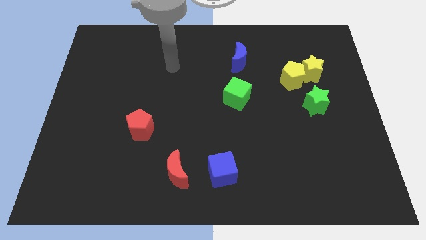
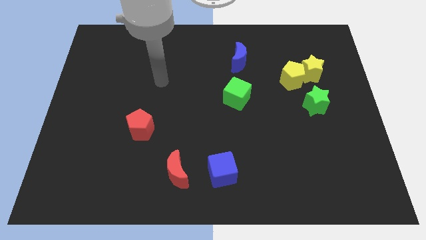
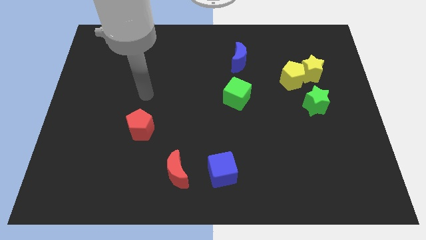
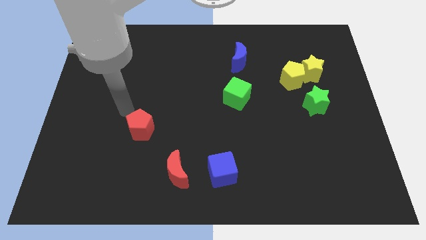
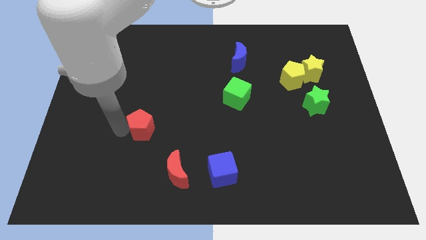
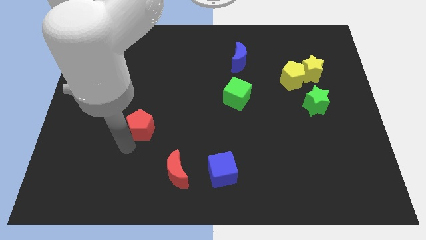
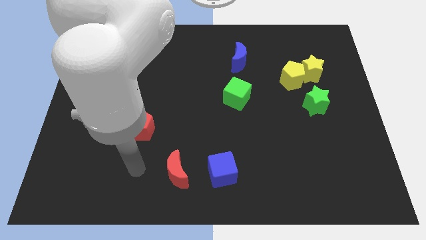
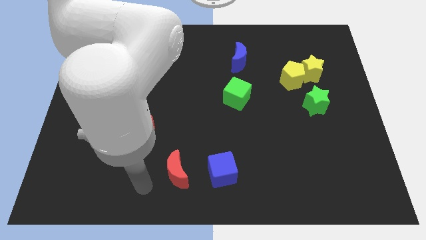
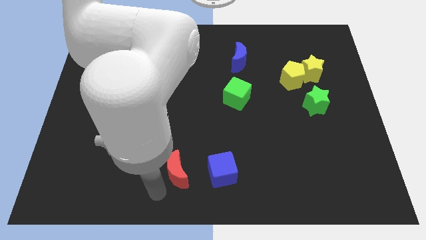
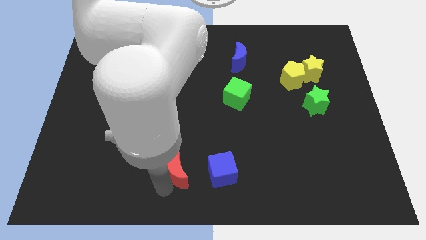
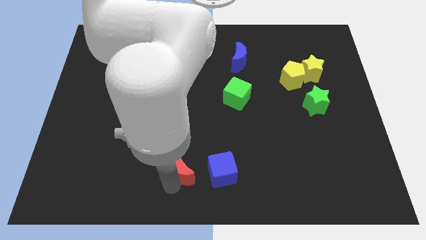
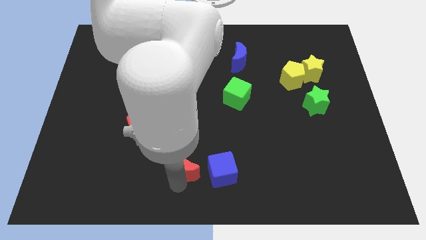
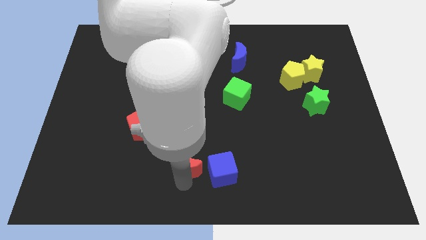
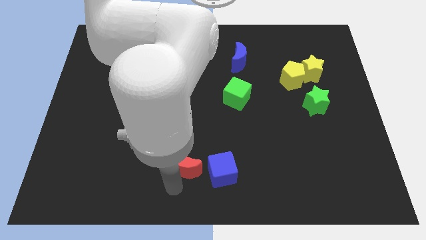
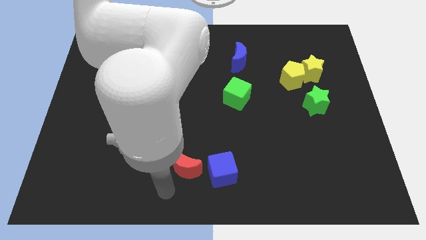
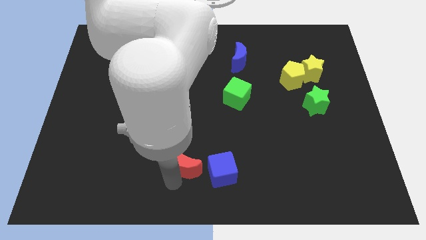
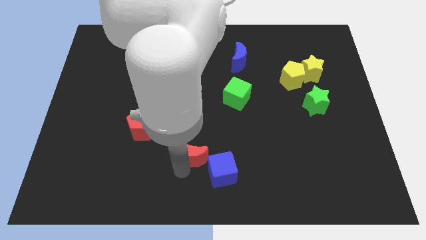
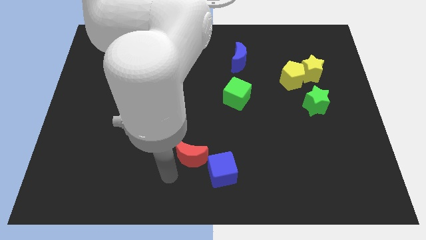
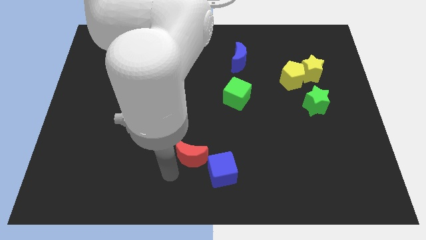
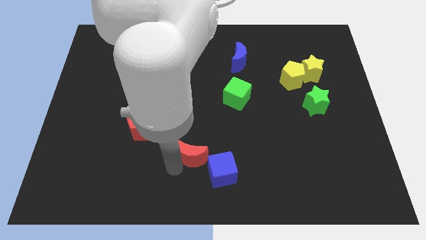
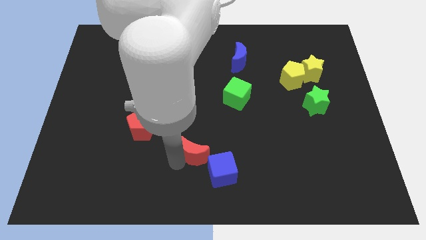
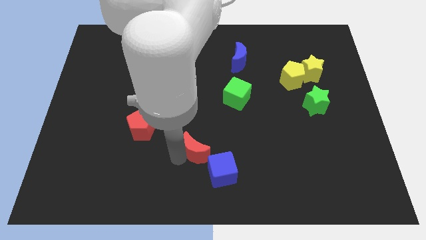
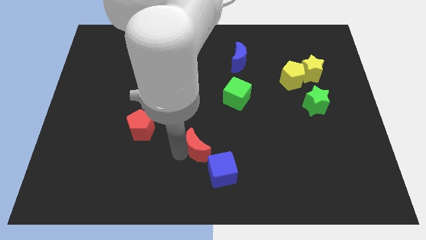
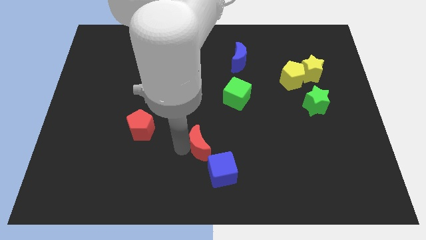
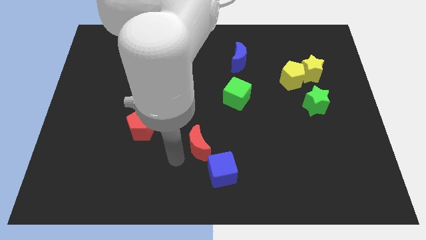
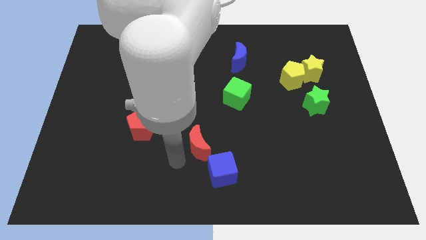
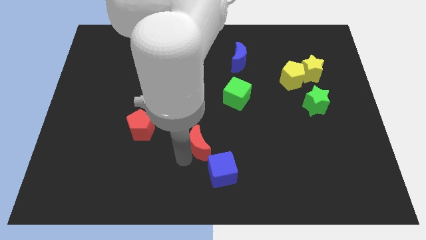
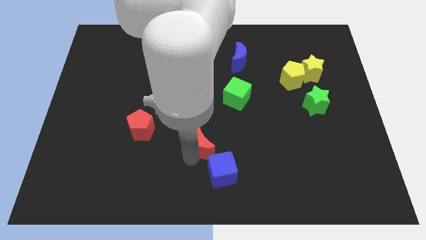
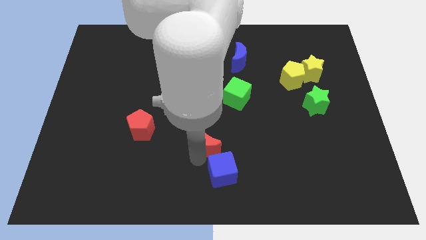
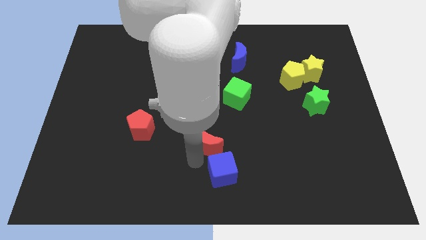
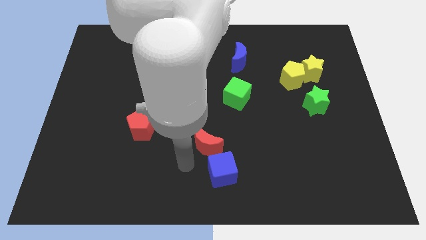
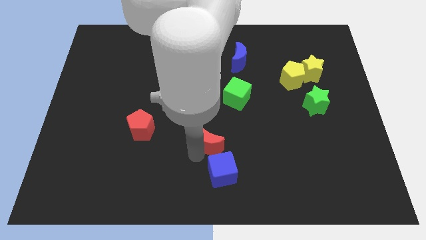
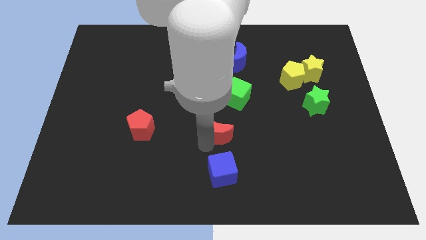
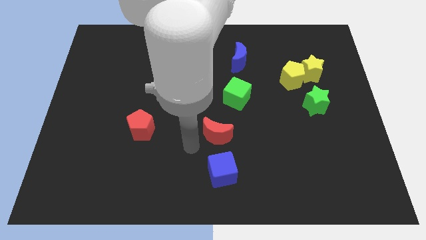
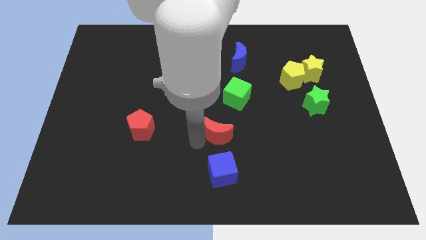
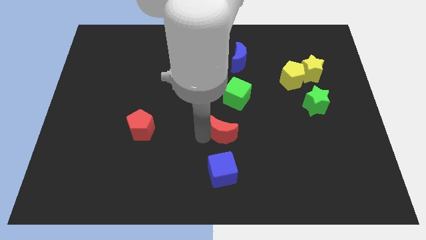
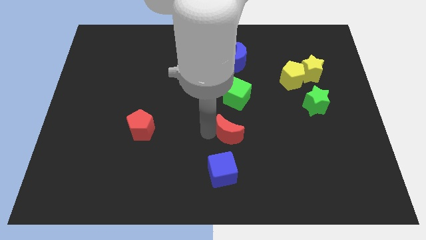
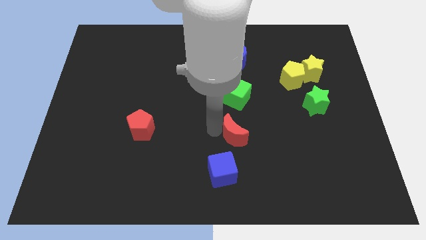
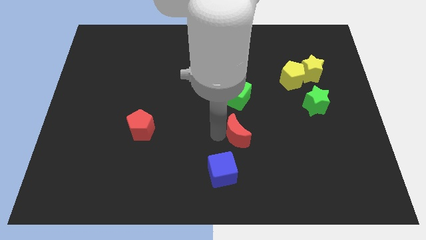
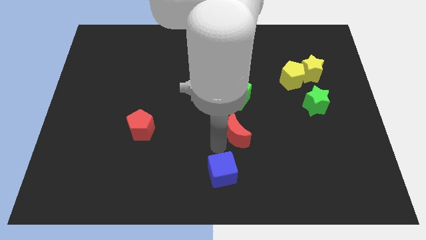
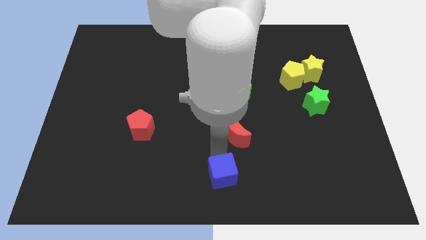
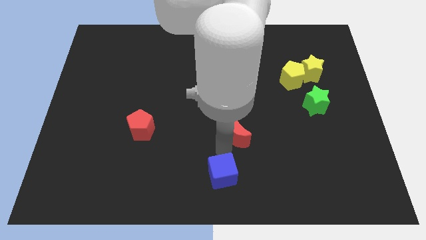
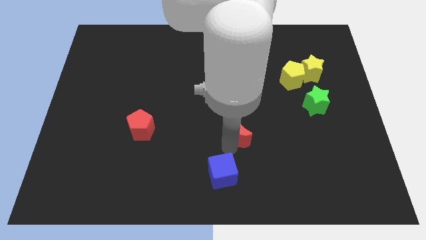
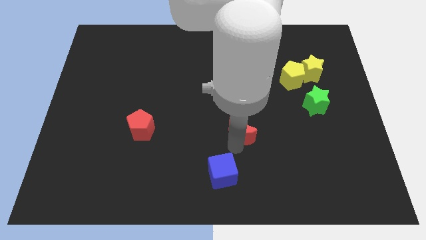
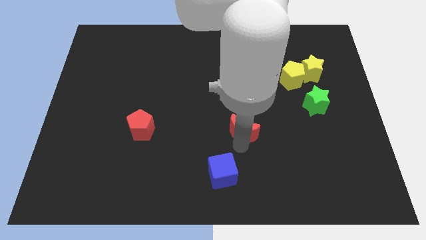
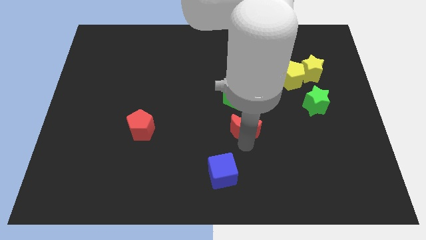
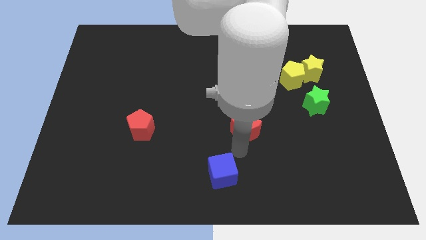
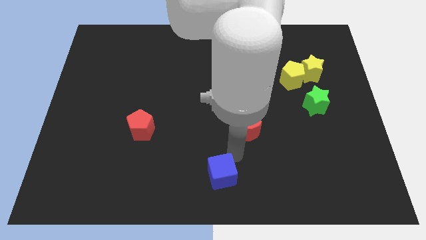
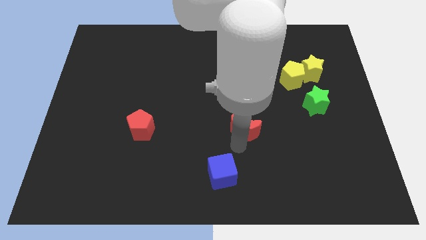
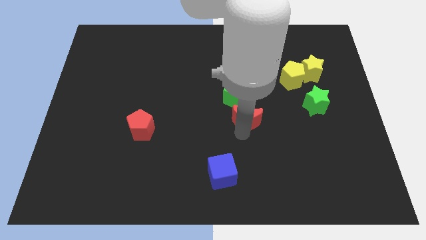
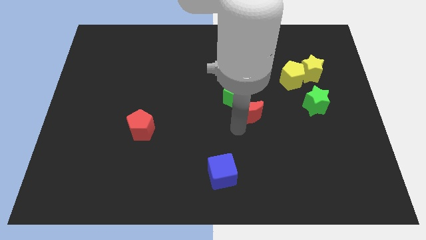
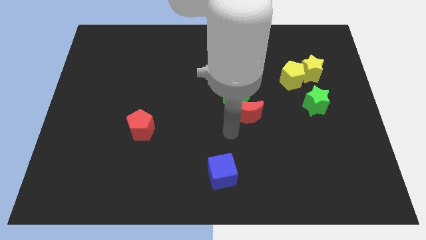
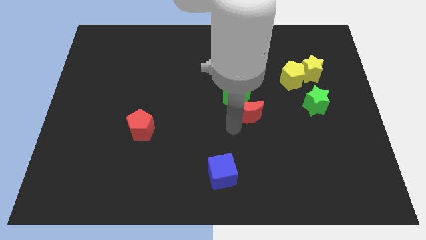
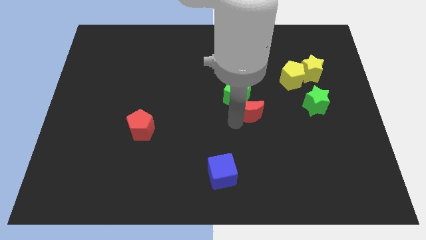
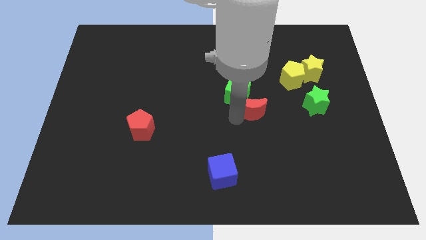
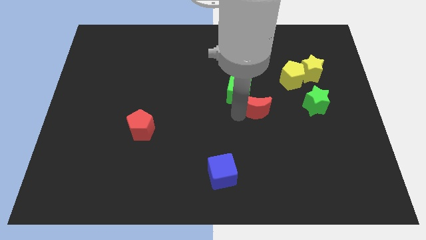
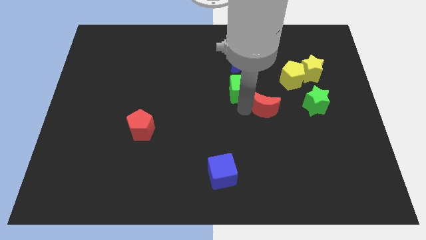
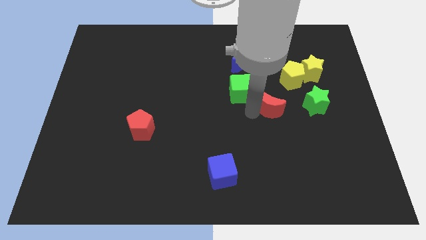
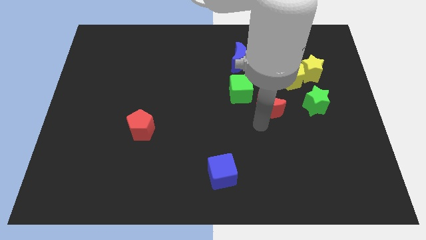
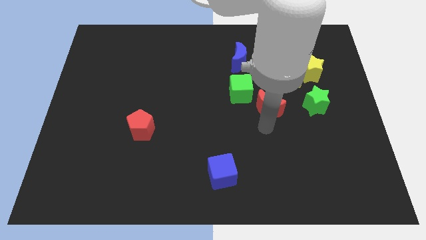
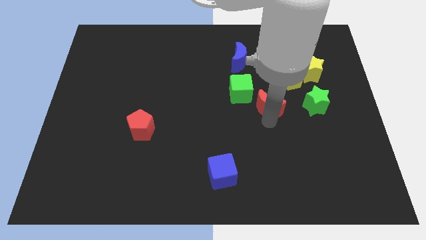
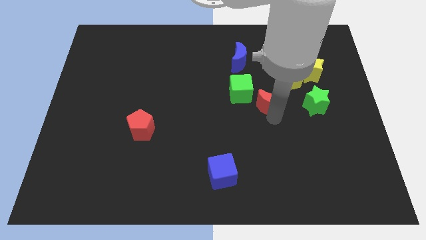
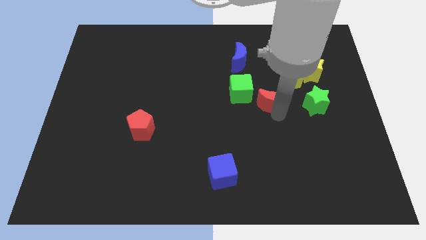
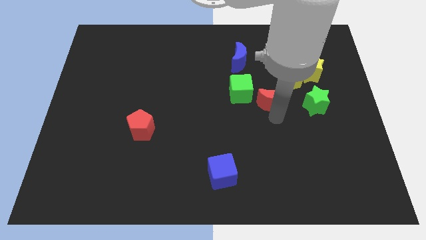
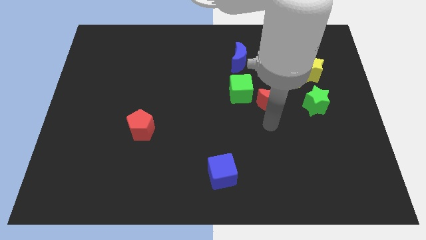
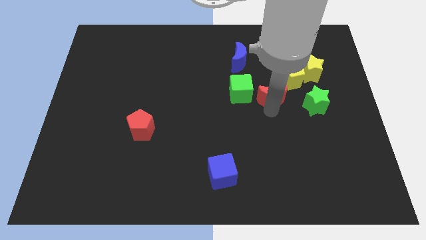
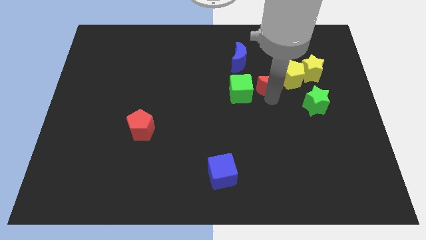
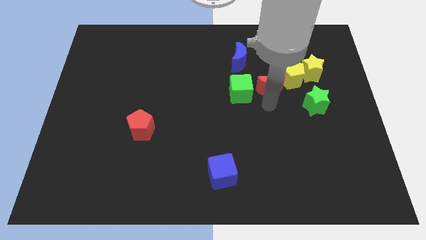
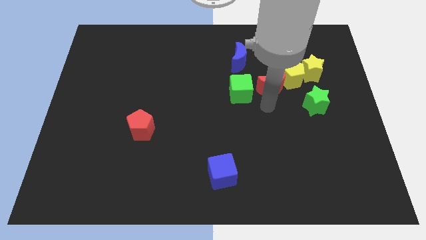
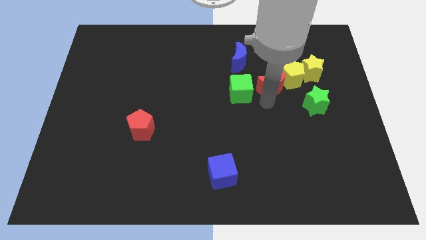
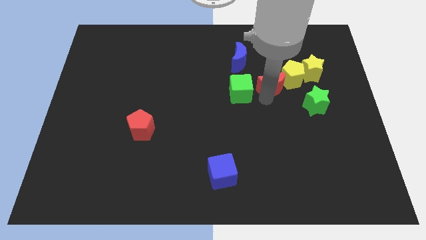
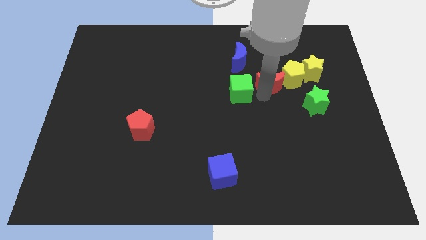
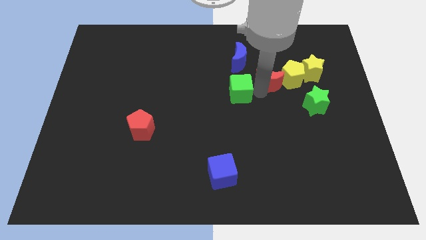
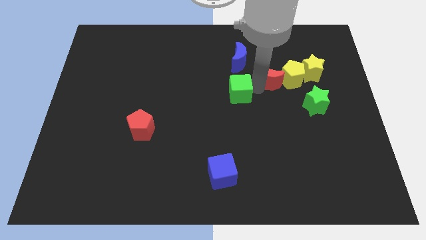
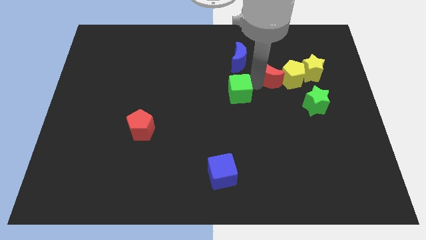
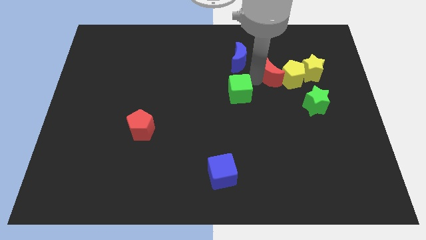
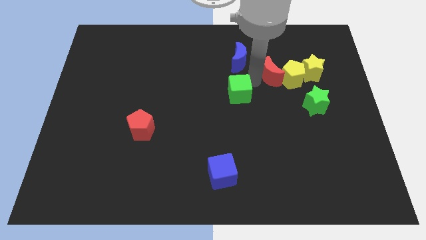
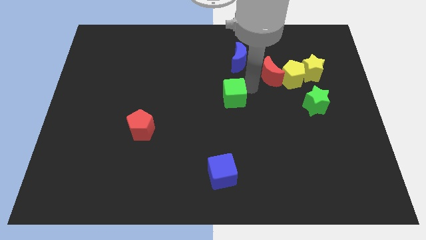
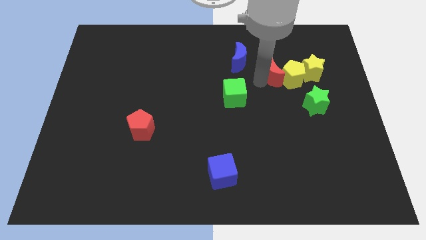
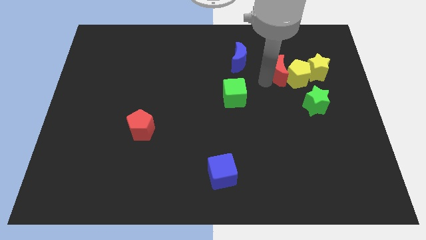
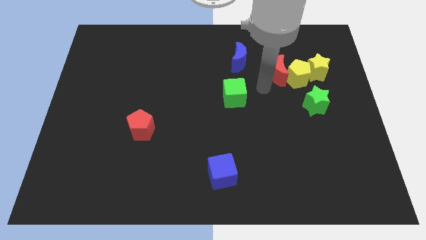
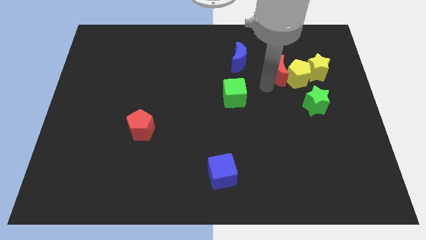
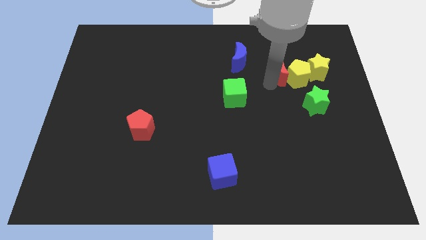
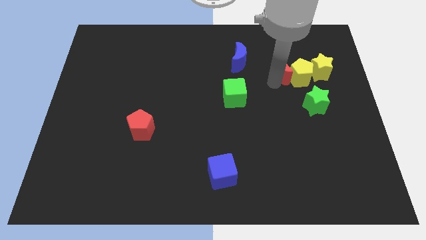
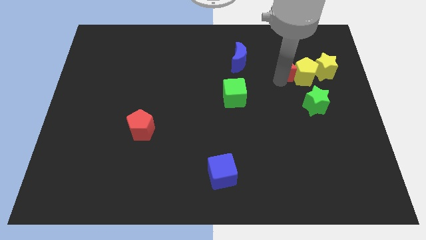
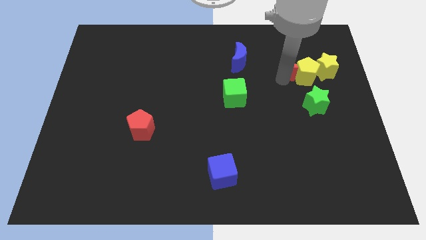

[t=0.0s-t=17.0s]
put the red moon to the top side of the green star
